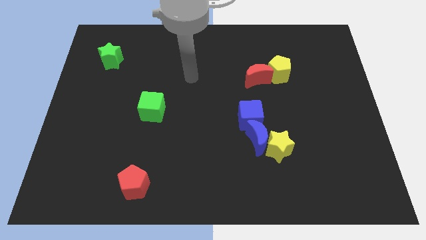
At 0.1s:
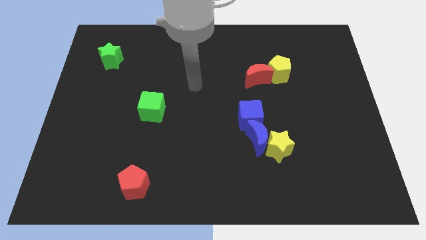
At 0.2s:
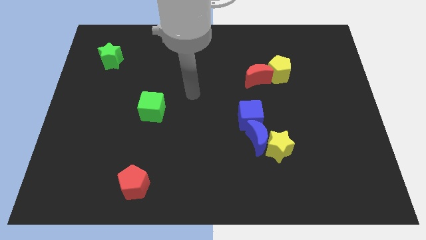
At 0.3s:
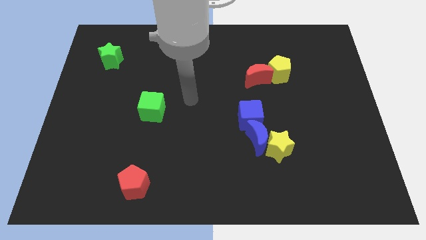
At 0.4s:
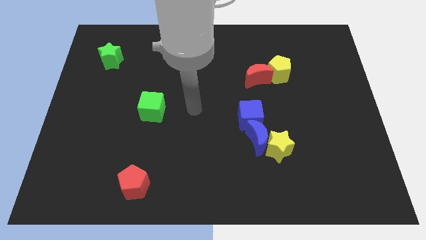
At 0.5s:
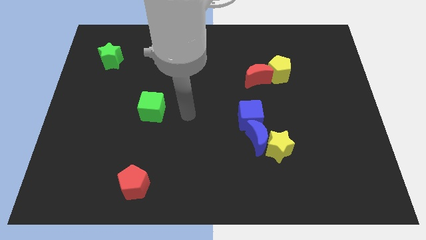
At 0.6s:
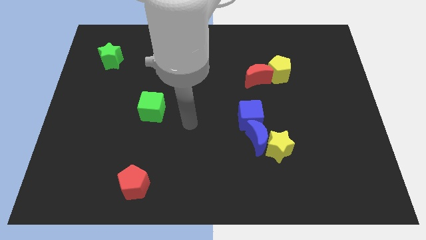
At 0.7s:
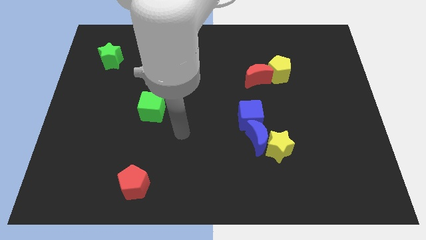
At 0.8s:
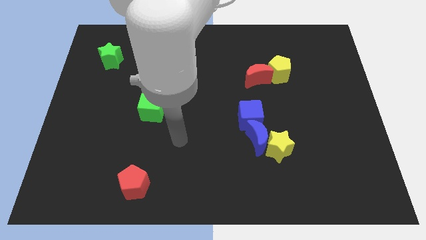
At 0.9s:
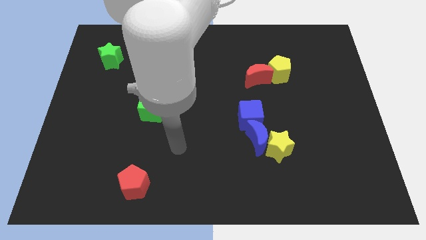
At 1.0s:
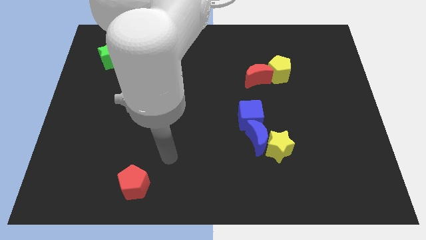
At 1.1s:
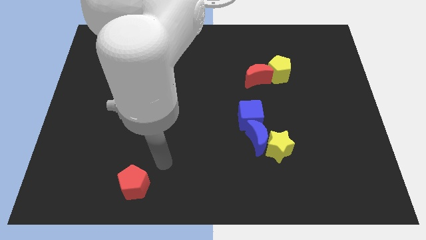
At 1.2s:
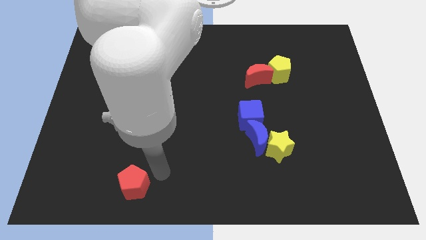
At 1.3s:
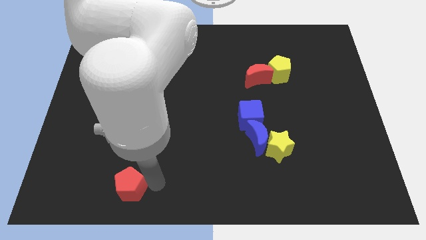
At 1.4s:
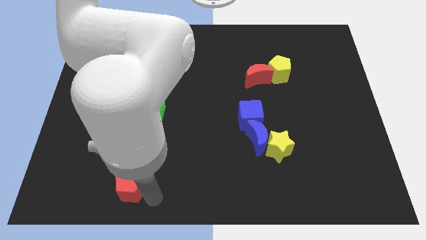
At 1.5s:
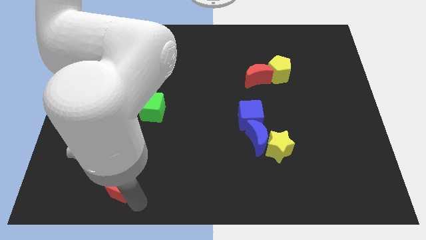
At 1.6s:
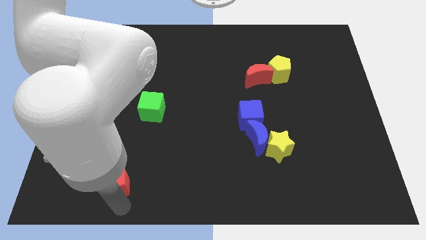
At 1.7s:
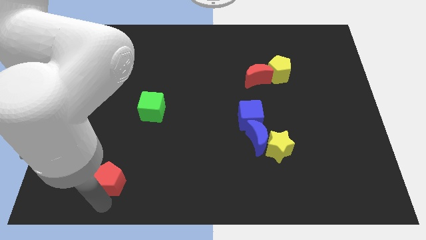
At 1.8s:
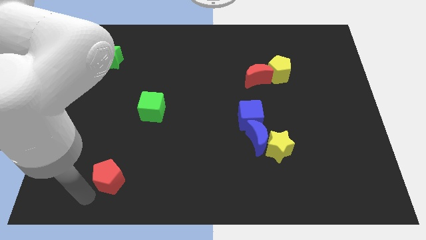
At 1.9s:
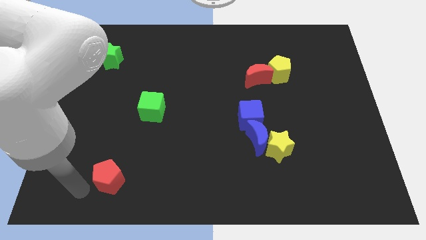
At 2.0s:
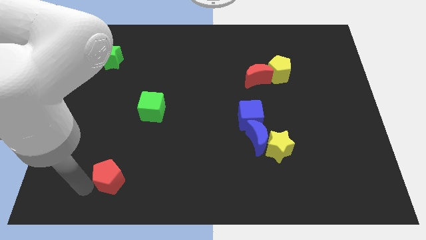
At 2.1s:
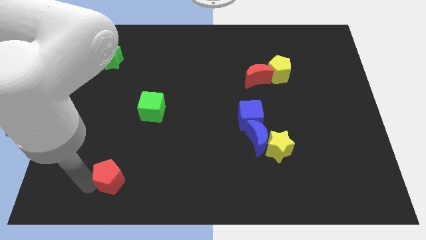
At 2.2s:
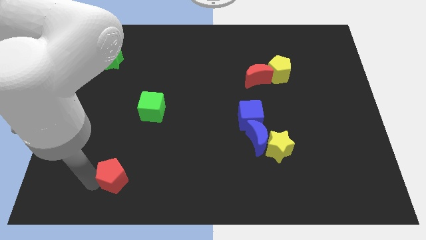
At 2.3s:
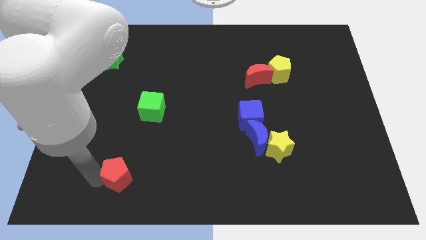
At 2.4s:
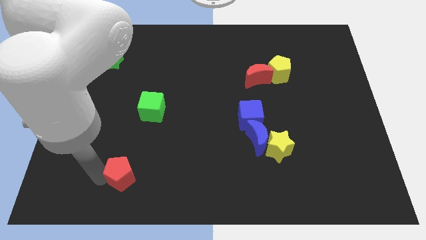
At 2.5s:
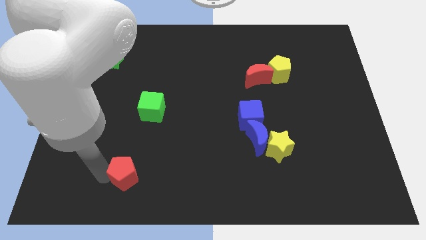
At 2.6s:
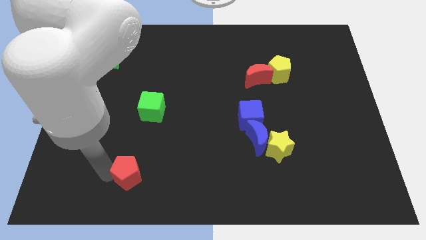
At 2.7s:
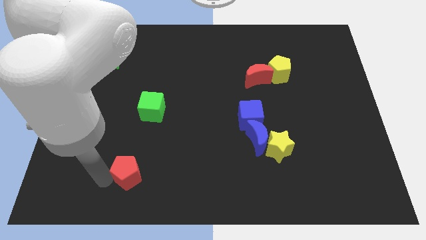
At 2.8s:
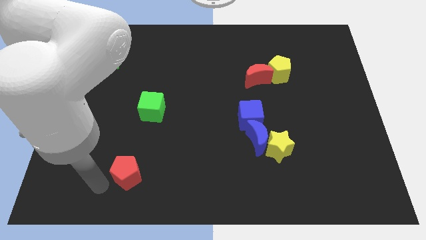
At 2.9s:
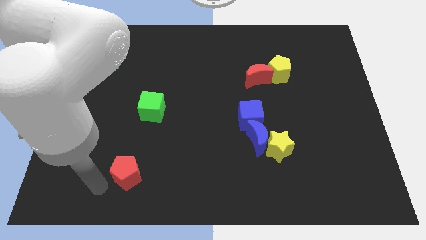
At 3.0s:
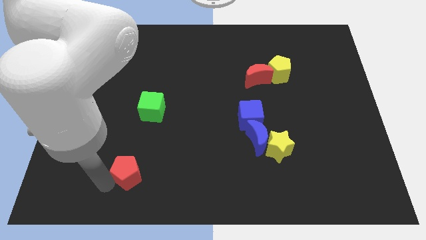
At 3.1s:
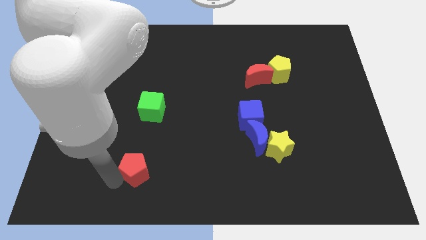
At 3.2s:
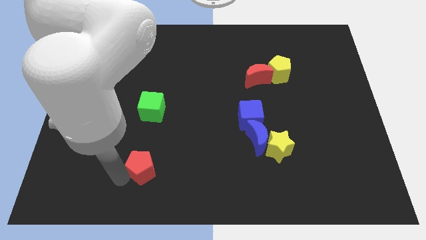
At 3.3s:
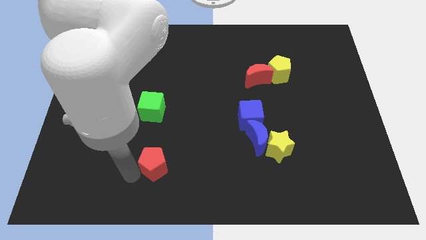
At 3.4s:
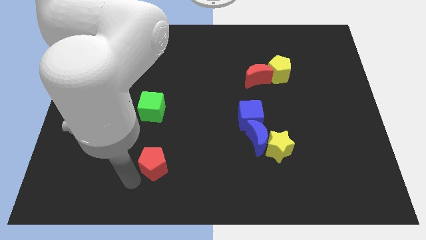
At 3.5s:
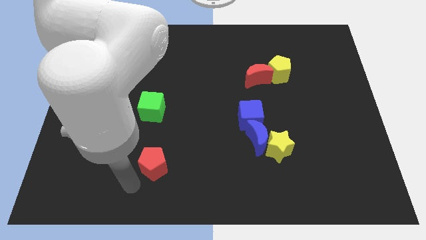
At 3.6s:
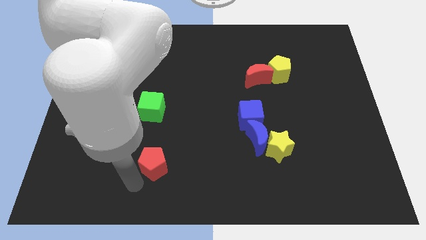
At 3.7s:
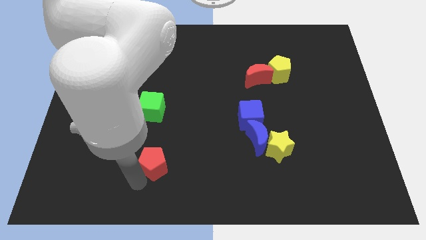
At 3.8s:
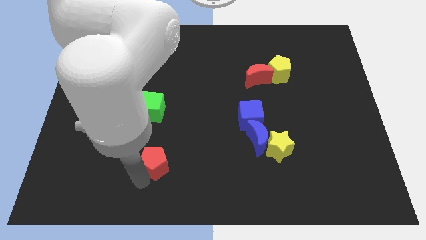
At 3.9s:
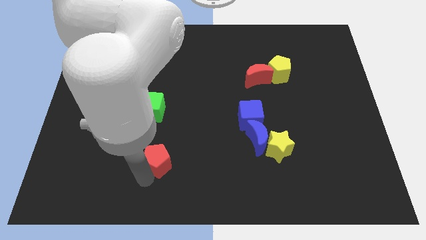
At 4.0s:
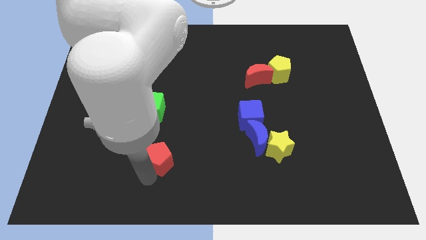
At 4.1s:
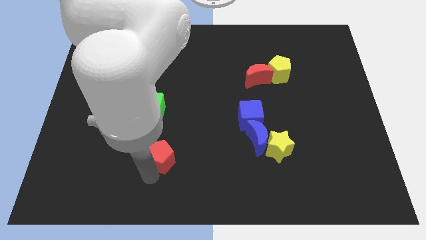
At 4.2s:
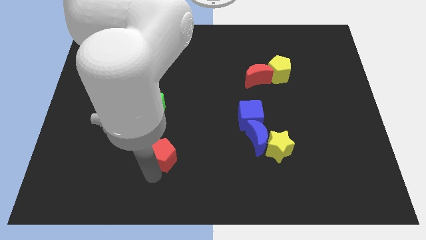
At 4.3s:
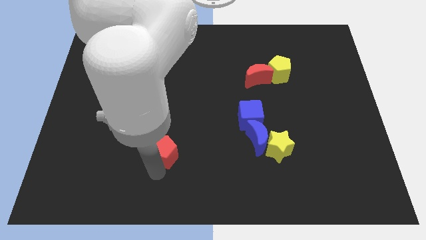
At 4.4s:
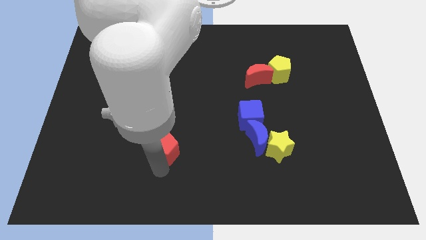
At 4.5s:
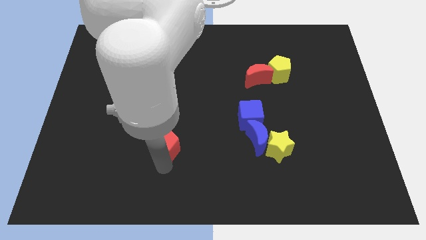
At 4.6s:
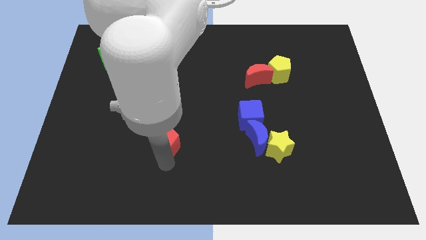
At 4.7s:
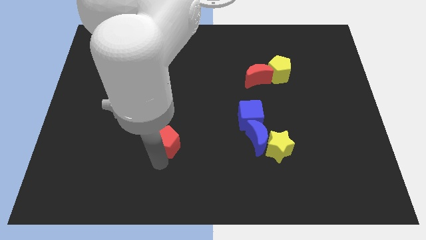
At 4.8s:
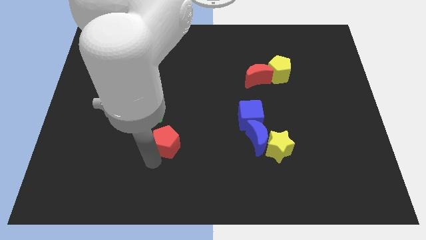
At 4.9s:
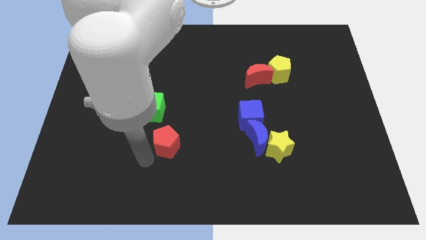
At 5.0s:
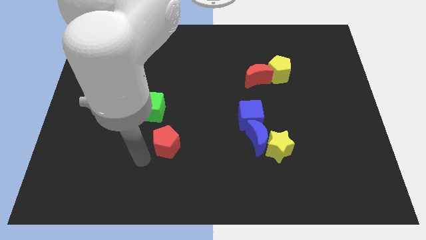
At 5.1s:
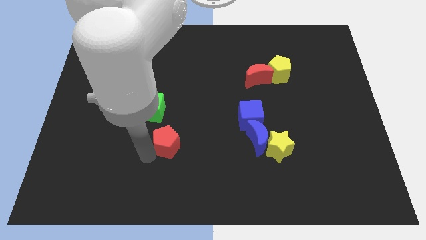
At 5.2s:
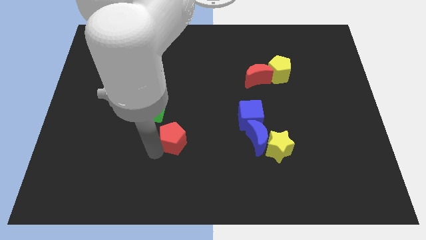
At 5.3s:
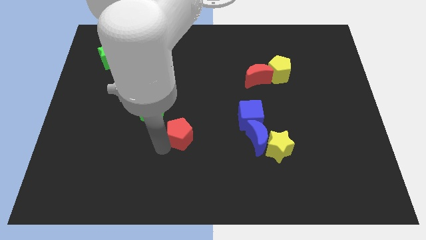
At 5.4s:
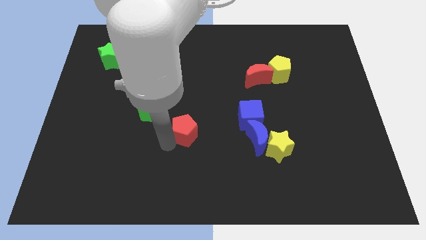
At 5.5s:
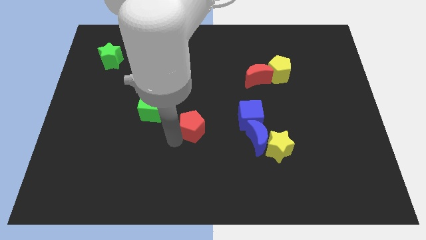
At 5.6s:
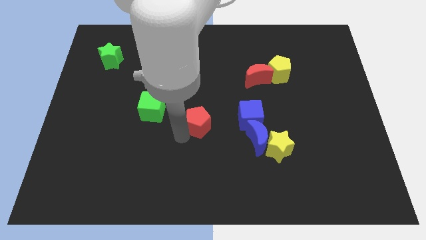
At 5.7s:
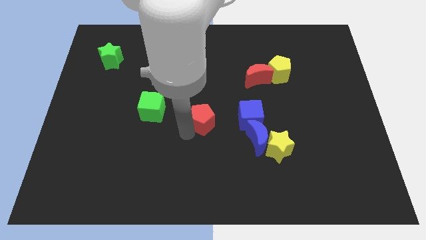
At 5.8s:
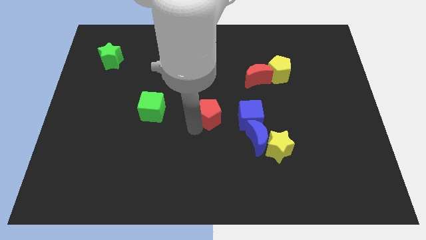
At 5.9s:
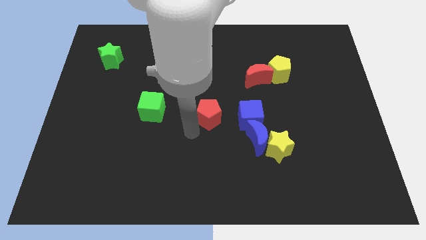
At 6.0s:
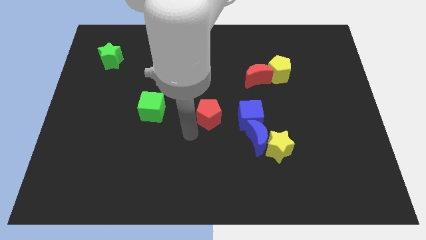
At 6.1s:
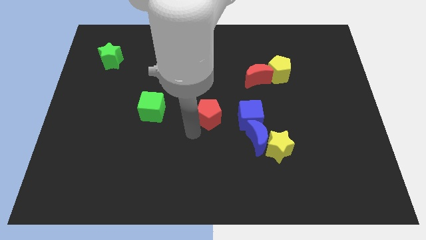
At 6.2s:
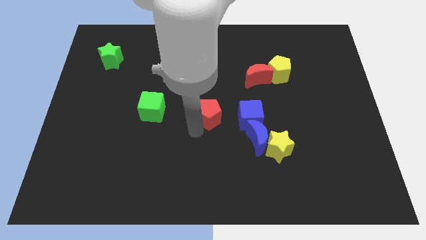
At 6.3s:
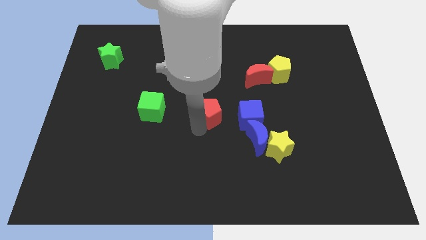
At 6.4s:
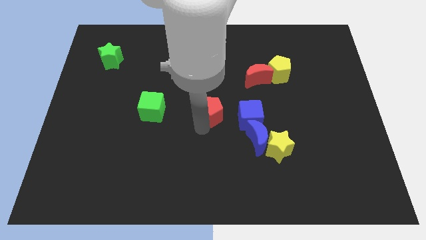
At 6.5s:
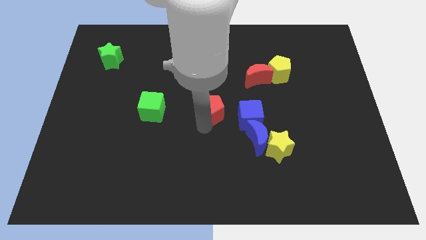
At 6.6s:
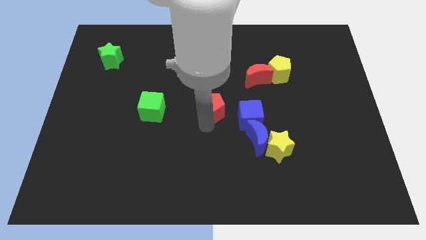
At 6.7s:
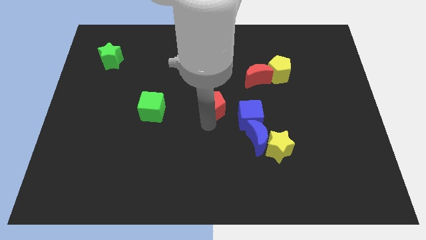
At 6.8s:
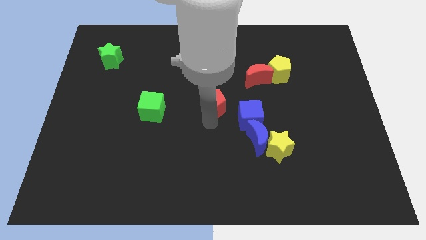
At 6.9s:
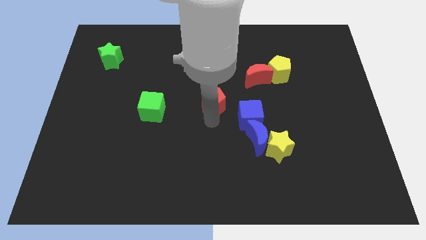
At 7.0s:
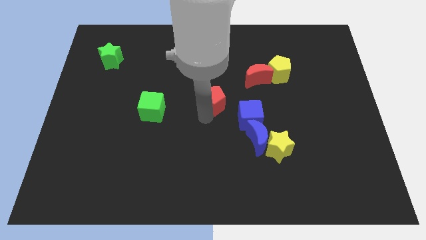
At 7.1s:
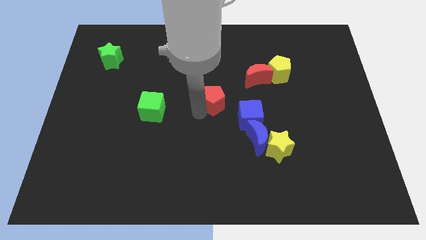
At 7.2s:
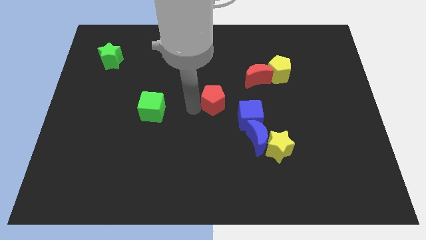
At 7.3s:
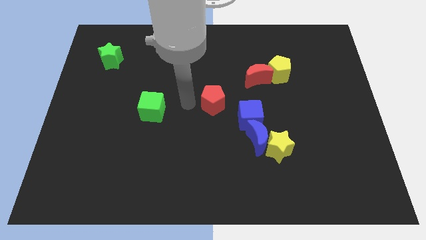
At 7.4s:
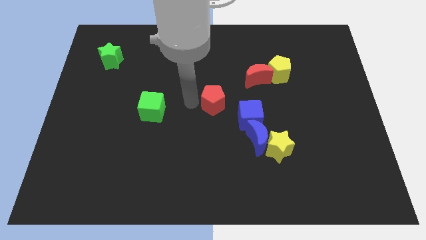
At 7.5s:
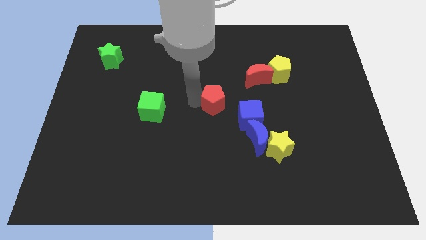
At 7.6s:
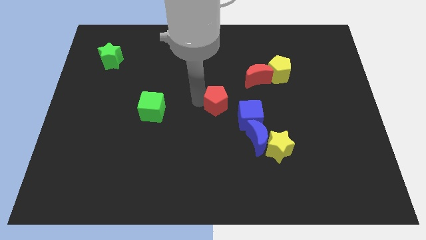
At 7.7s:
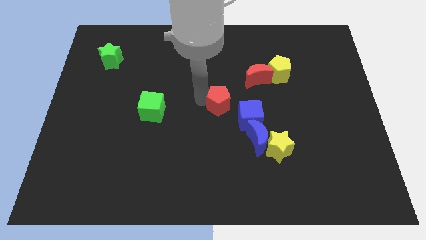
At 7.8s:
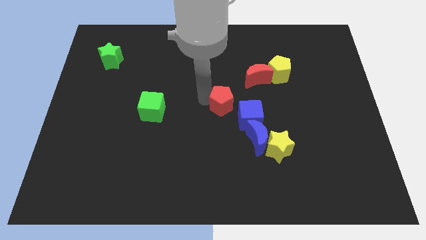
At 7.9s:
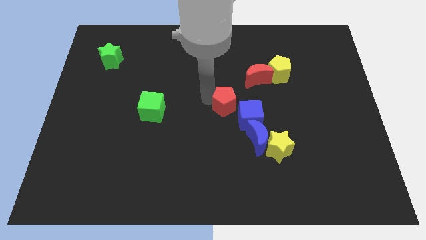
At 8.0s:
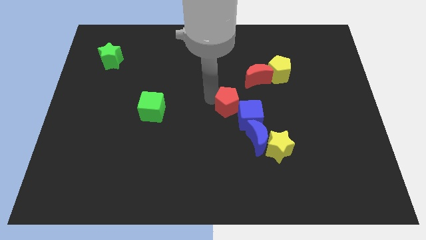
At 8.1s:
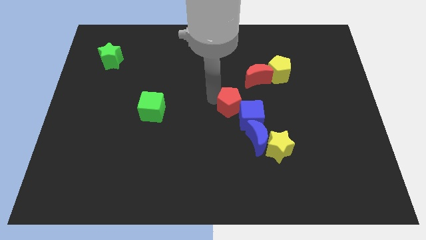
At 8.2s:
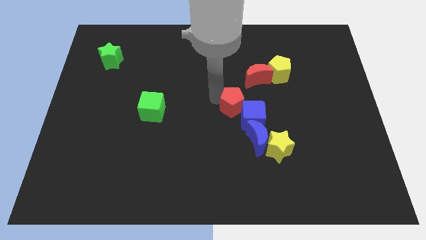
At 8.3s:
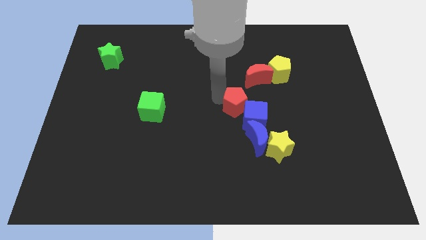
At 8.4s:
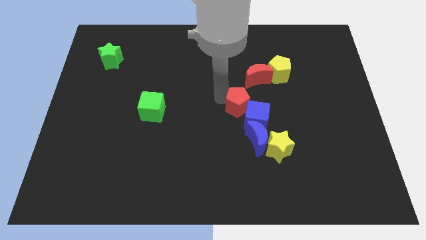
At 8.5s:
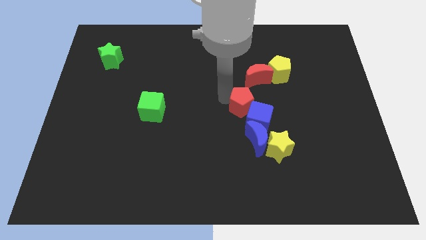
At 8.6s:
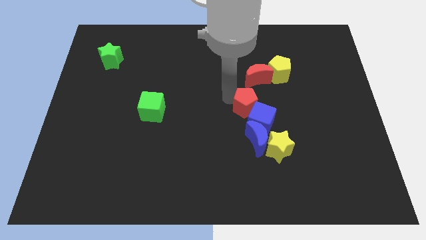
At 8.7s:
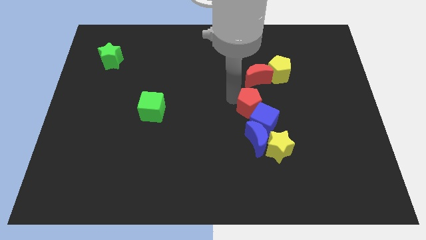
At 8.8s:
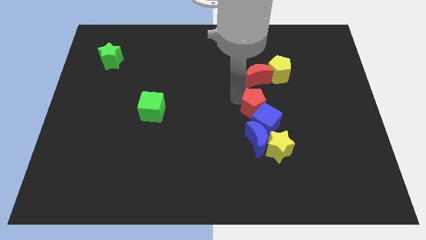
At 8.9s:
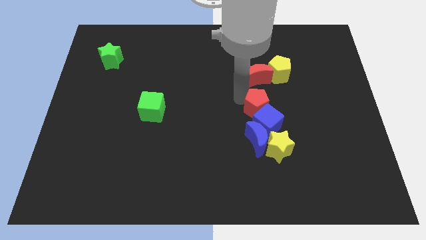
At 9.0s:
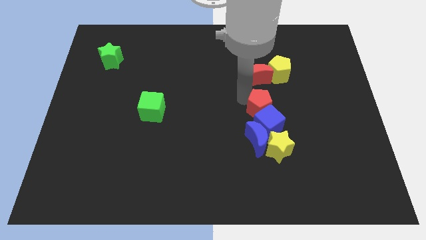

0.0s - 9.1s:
put the red pentagon to the top right of the blue cube
